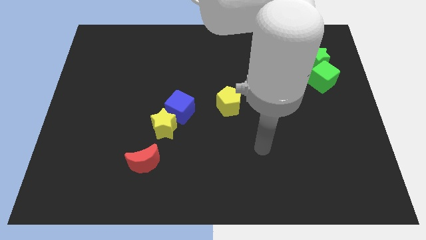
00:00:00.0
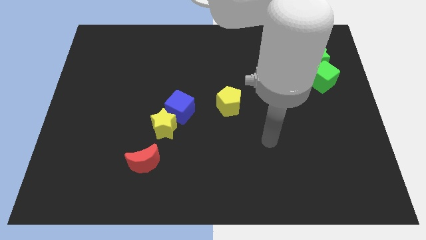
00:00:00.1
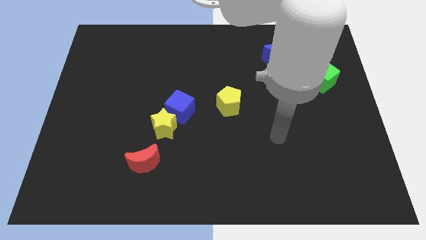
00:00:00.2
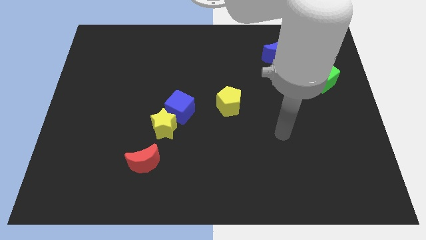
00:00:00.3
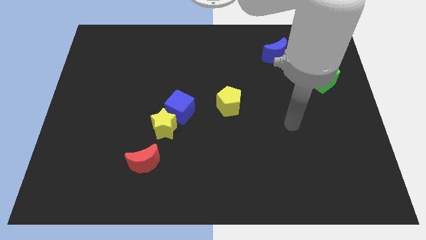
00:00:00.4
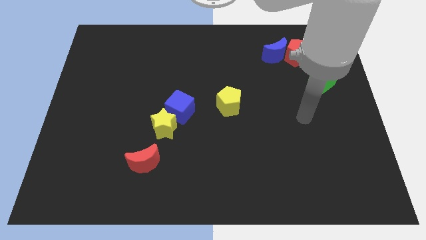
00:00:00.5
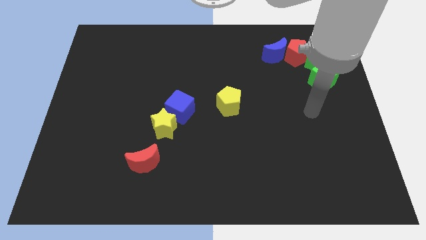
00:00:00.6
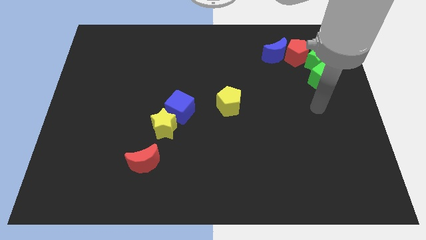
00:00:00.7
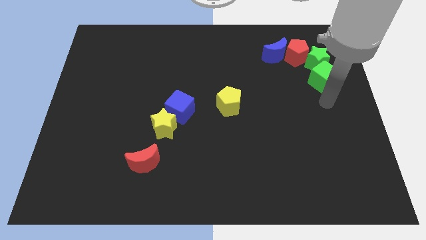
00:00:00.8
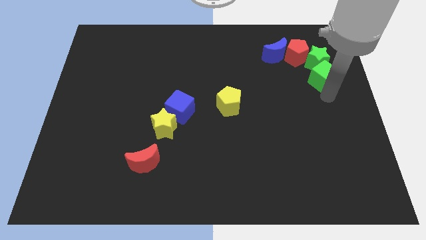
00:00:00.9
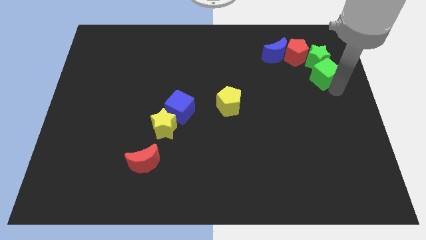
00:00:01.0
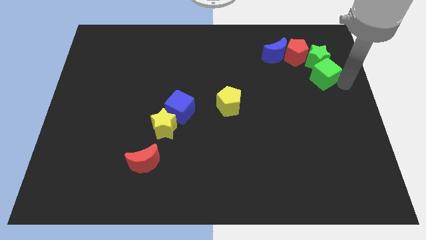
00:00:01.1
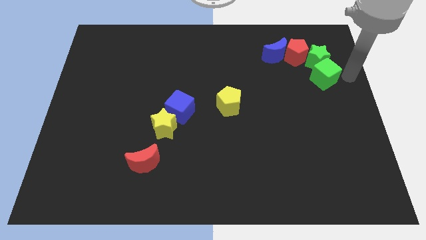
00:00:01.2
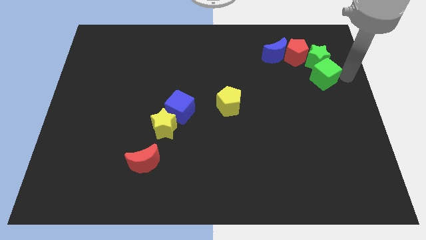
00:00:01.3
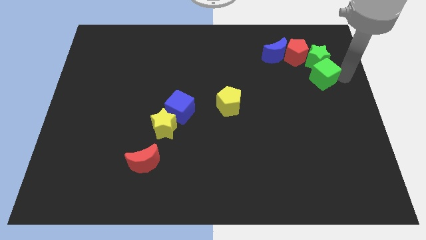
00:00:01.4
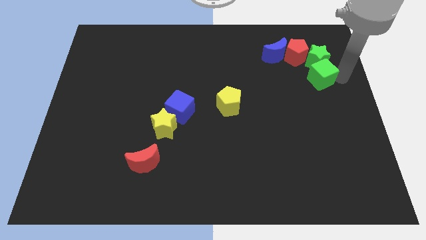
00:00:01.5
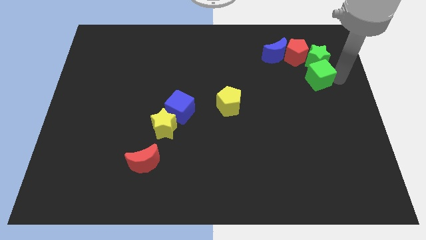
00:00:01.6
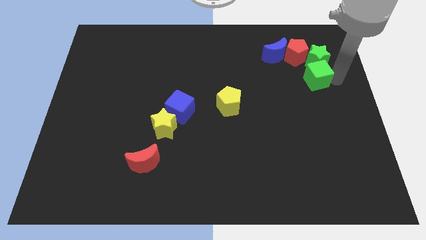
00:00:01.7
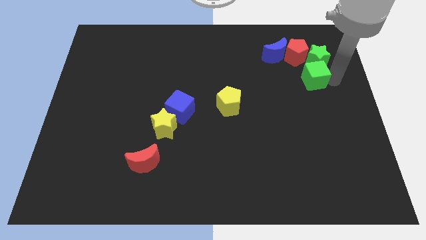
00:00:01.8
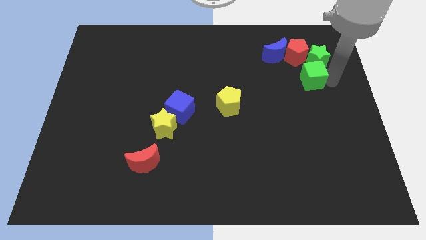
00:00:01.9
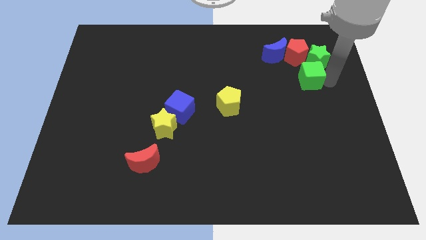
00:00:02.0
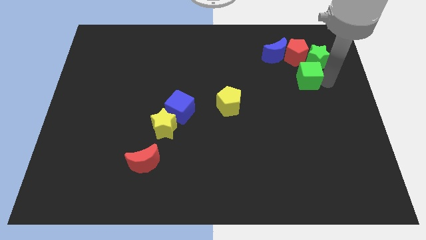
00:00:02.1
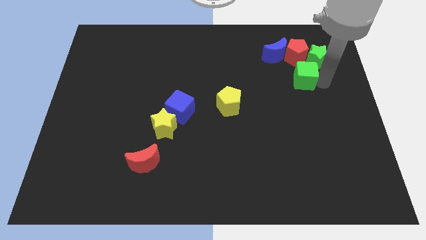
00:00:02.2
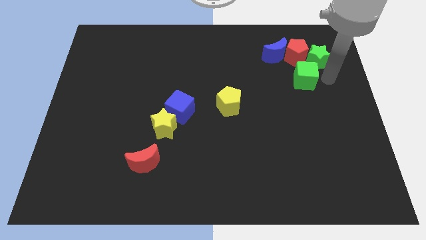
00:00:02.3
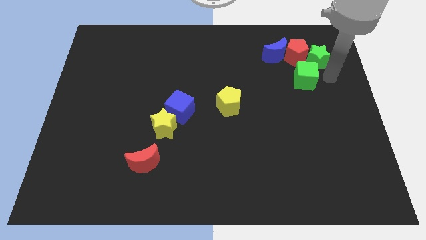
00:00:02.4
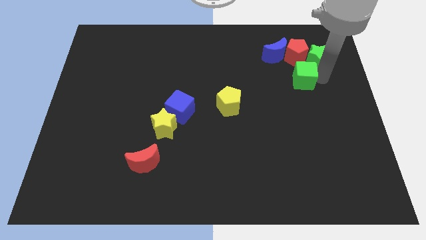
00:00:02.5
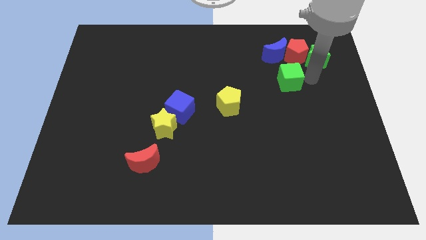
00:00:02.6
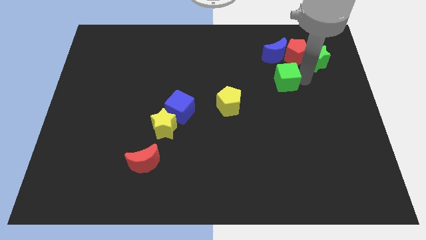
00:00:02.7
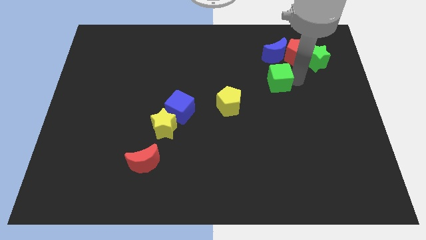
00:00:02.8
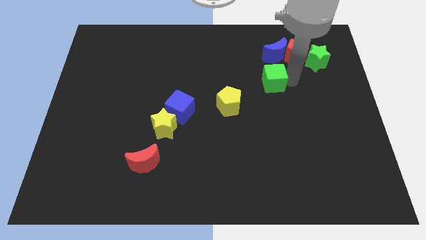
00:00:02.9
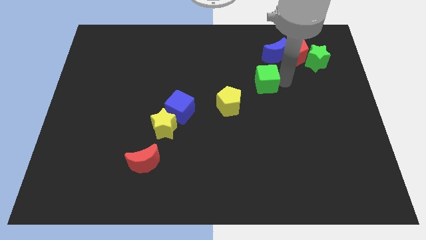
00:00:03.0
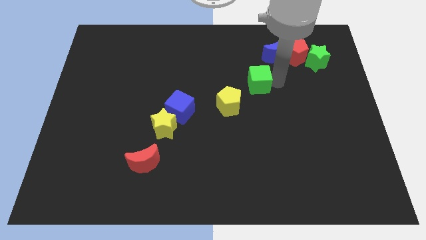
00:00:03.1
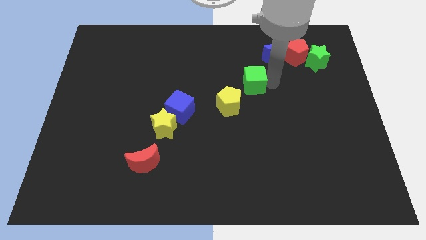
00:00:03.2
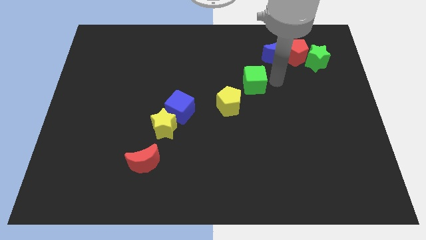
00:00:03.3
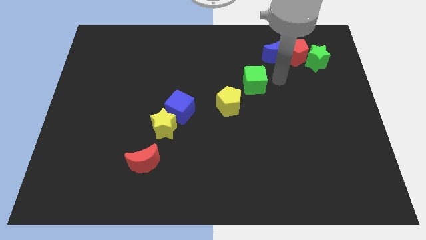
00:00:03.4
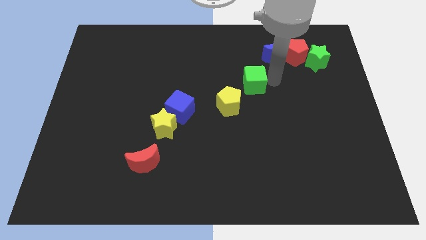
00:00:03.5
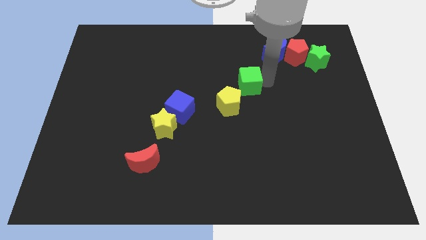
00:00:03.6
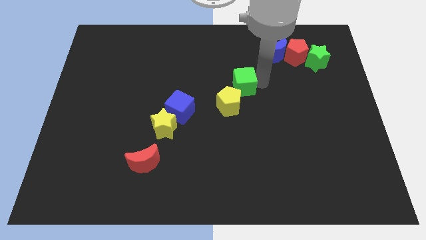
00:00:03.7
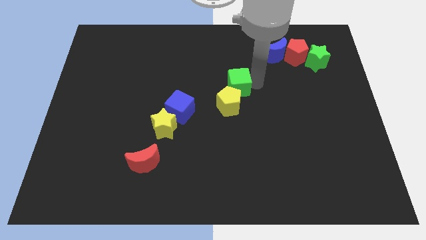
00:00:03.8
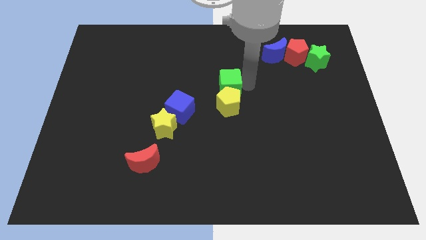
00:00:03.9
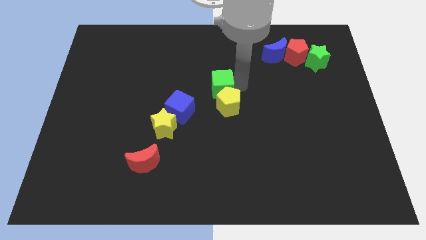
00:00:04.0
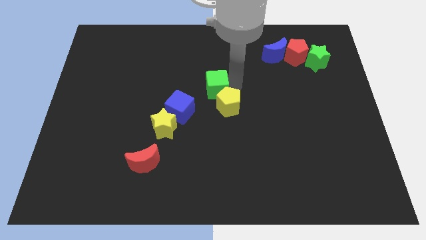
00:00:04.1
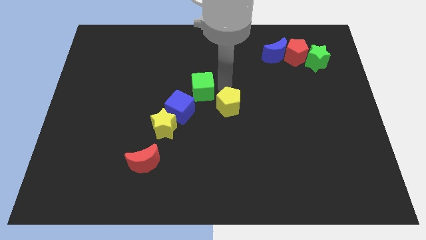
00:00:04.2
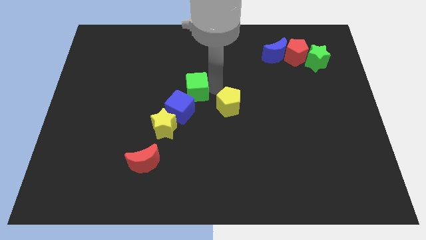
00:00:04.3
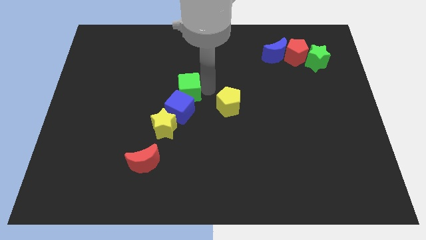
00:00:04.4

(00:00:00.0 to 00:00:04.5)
slide the green cube to the top side of the yellow star

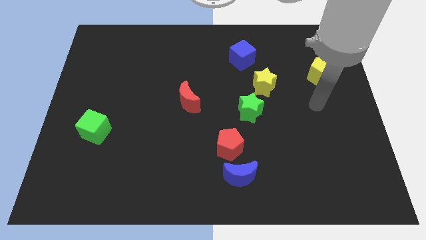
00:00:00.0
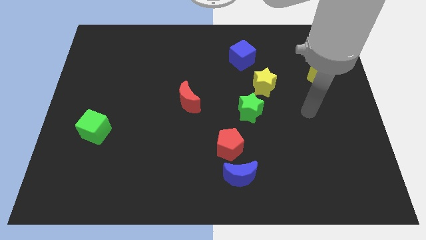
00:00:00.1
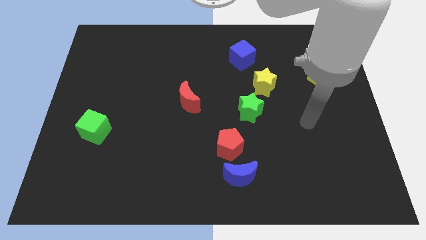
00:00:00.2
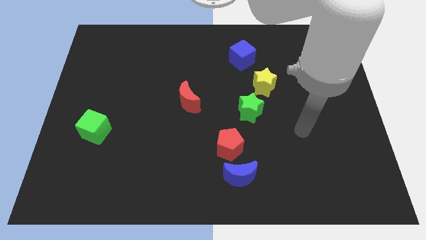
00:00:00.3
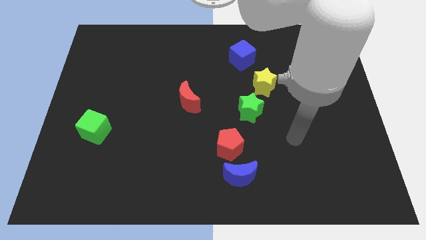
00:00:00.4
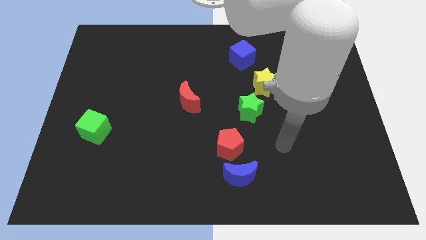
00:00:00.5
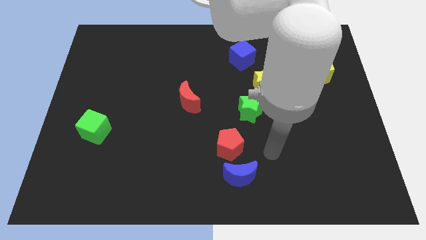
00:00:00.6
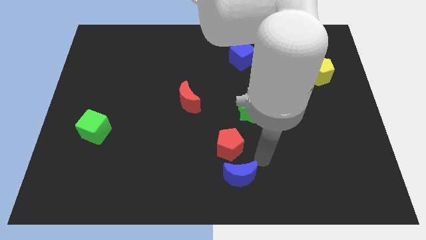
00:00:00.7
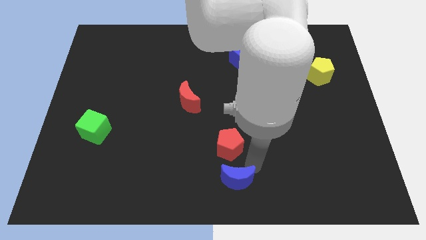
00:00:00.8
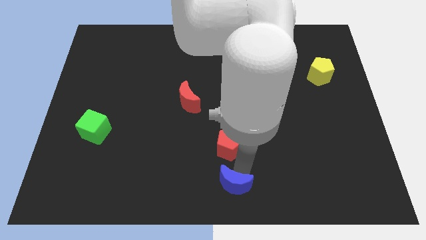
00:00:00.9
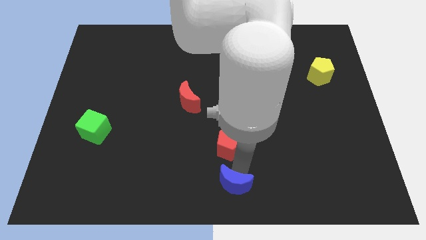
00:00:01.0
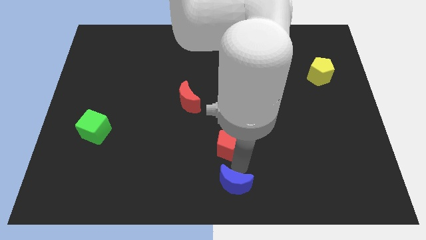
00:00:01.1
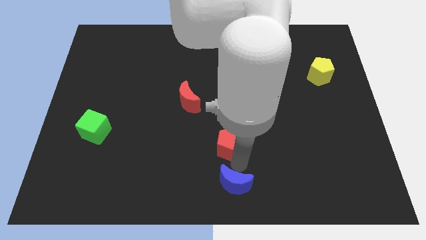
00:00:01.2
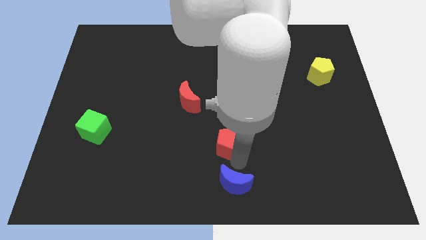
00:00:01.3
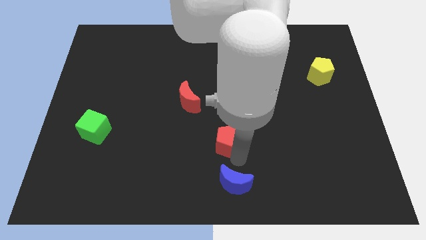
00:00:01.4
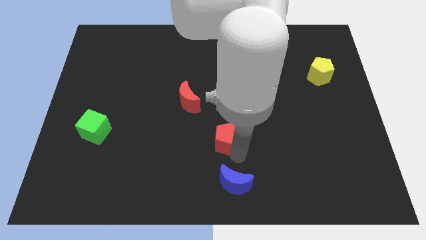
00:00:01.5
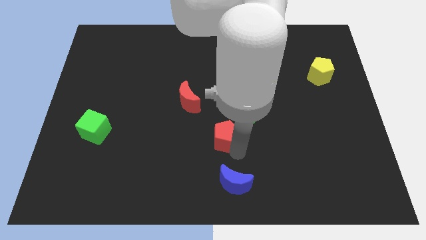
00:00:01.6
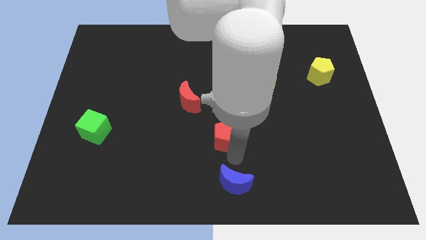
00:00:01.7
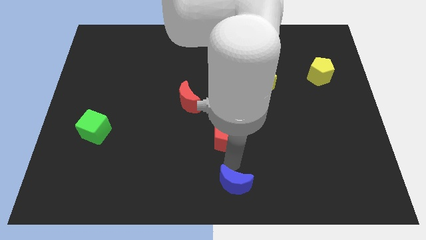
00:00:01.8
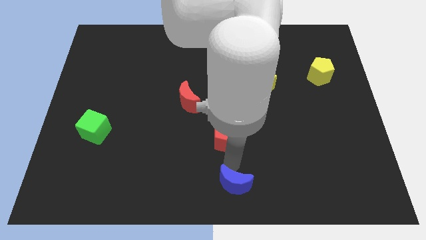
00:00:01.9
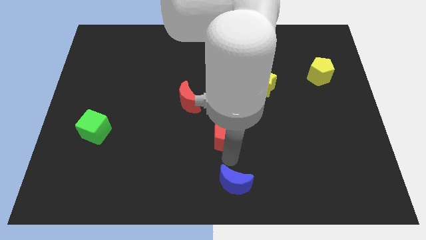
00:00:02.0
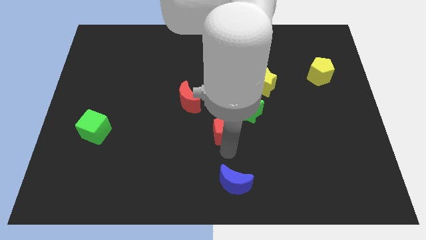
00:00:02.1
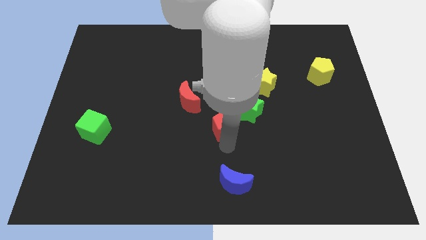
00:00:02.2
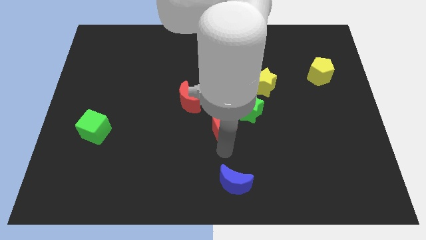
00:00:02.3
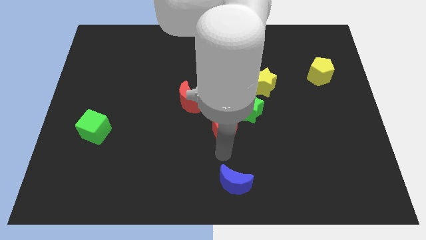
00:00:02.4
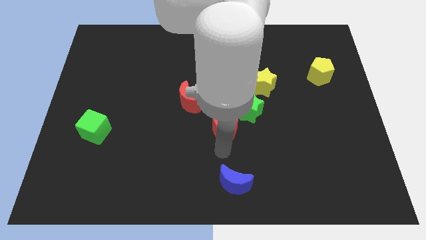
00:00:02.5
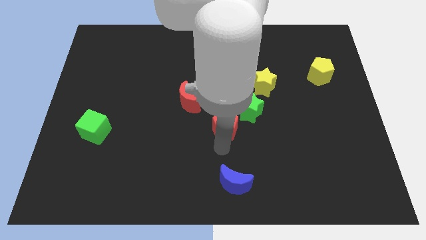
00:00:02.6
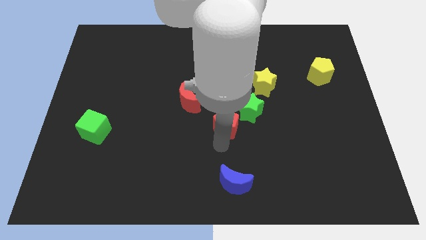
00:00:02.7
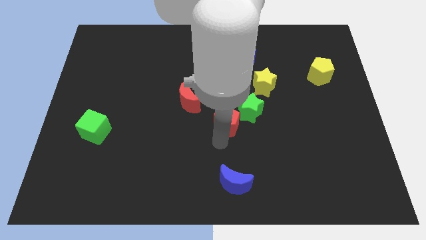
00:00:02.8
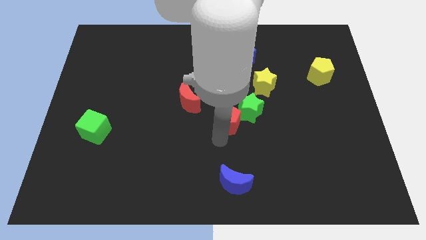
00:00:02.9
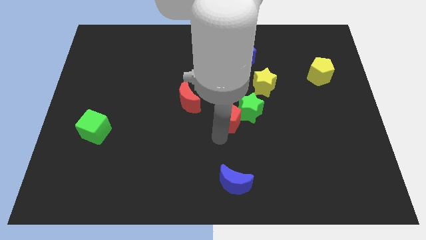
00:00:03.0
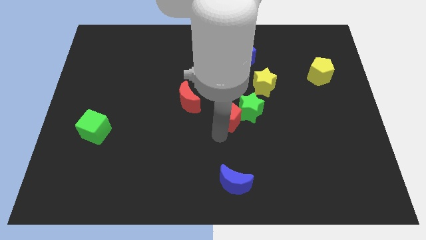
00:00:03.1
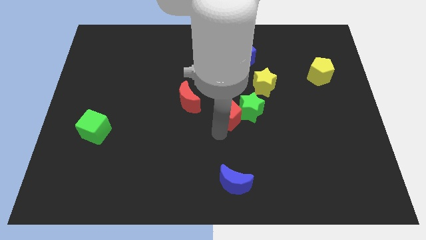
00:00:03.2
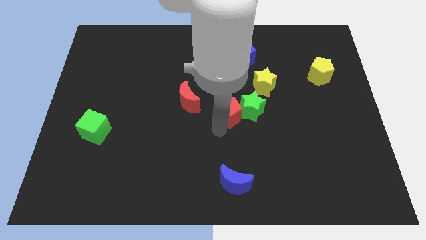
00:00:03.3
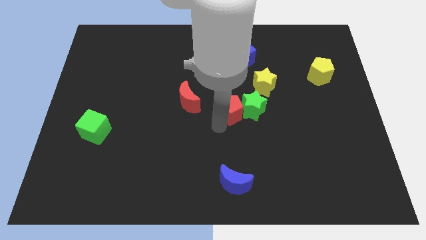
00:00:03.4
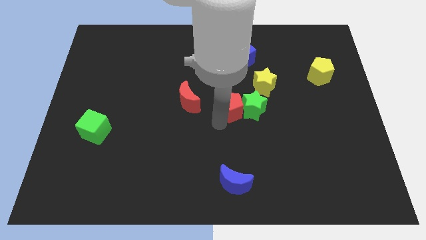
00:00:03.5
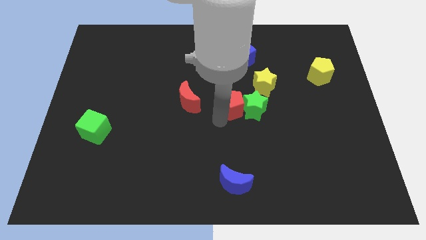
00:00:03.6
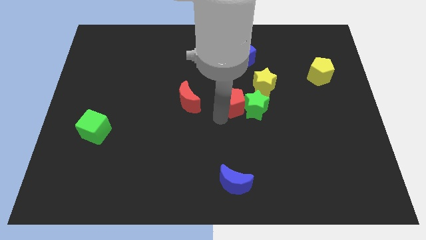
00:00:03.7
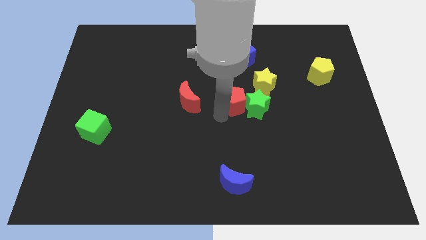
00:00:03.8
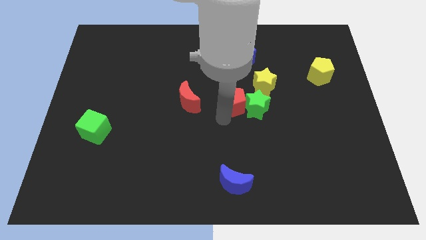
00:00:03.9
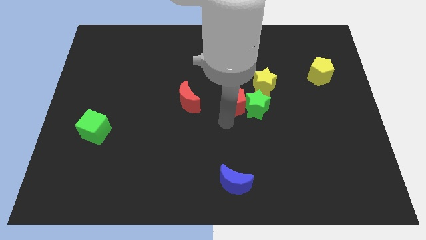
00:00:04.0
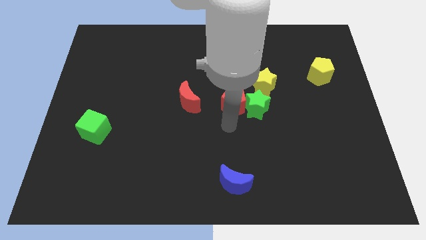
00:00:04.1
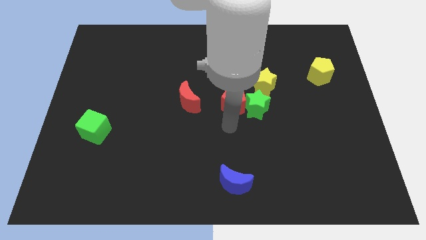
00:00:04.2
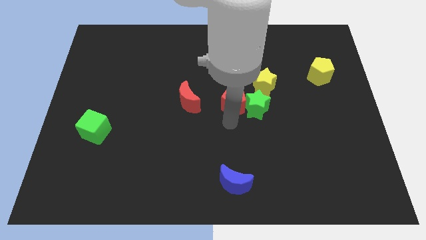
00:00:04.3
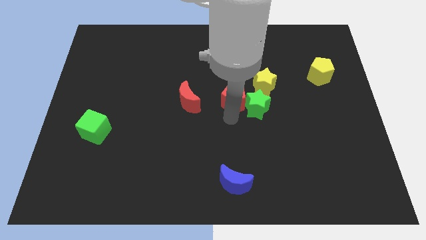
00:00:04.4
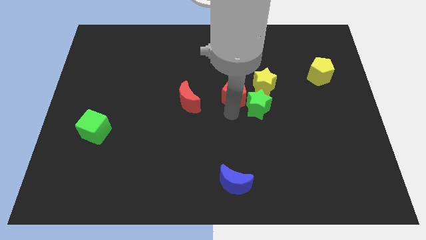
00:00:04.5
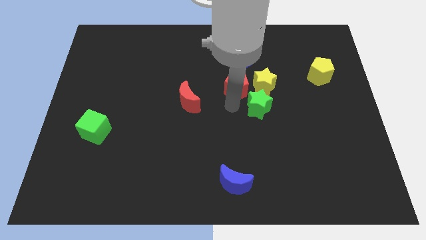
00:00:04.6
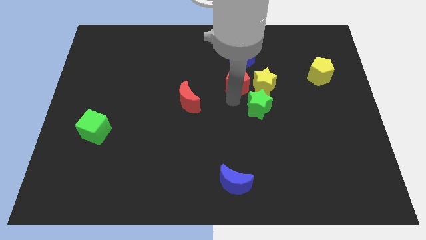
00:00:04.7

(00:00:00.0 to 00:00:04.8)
push the red pentagon to the top left of the yellow star
